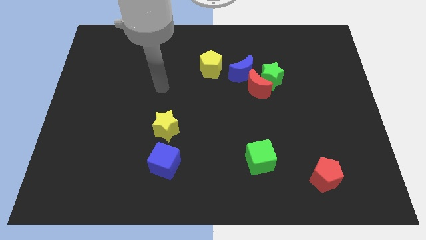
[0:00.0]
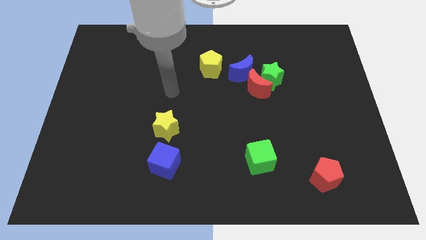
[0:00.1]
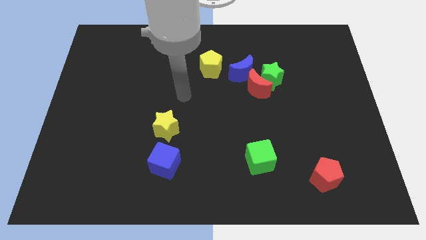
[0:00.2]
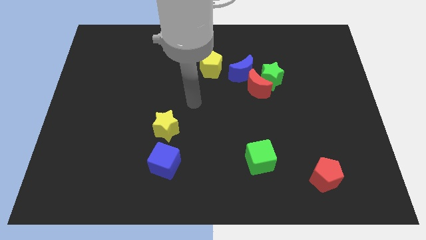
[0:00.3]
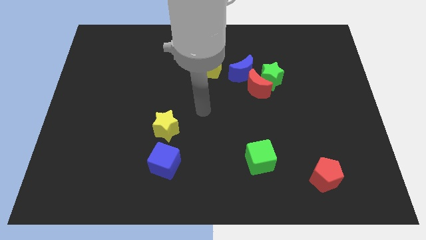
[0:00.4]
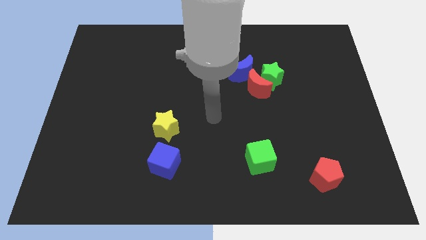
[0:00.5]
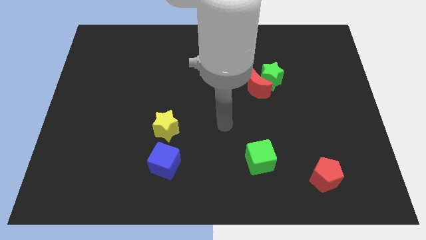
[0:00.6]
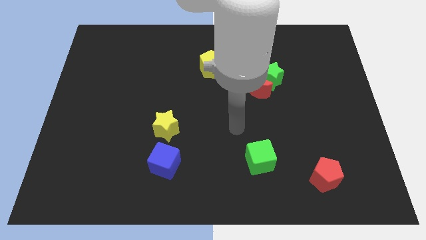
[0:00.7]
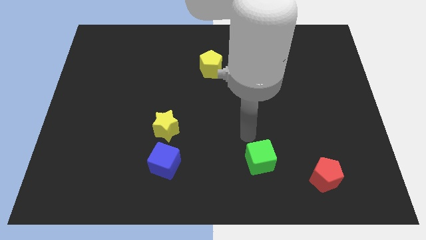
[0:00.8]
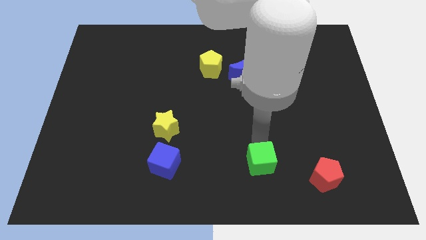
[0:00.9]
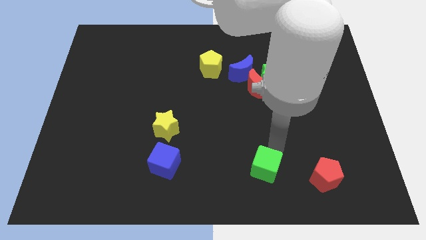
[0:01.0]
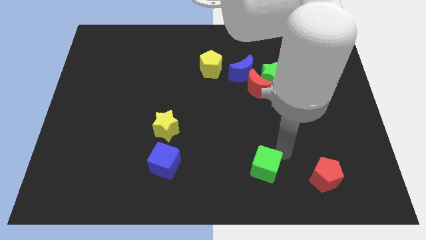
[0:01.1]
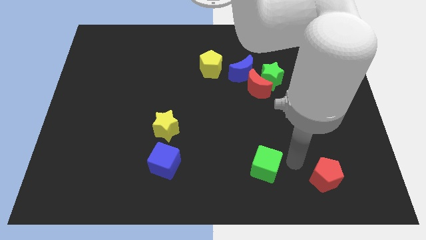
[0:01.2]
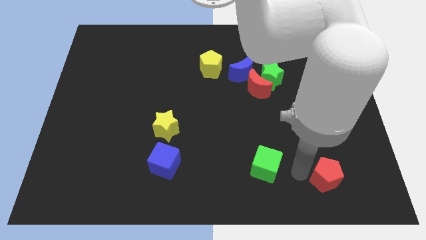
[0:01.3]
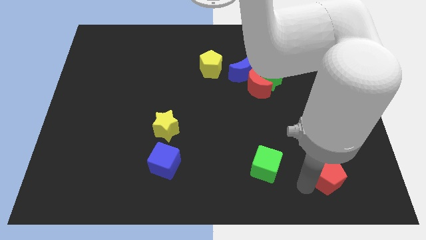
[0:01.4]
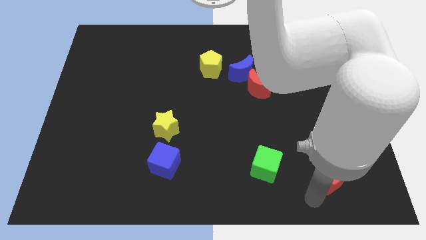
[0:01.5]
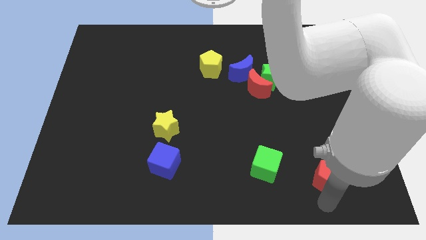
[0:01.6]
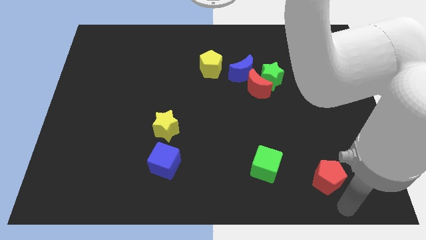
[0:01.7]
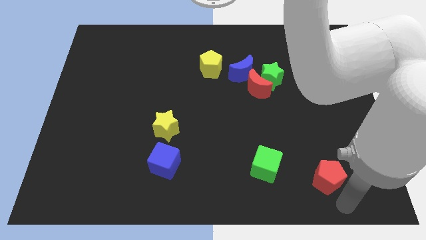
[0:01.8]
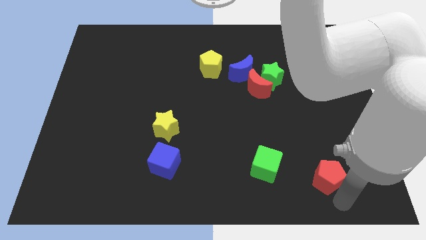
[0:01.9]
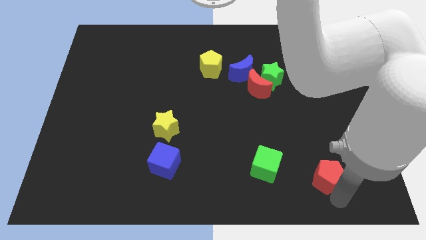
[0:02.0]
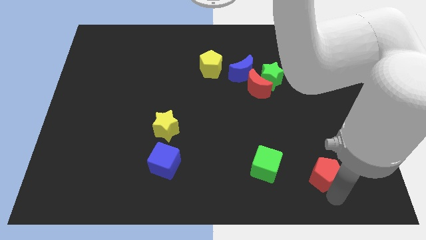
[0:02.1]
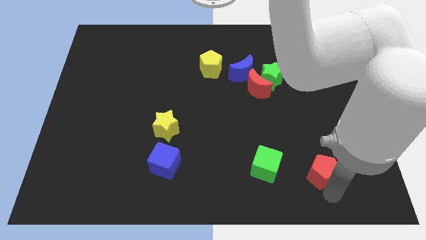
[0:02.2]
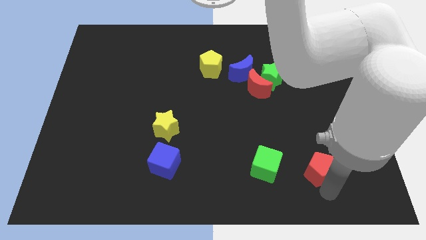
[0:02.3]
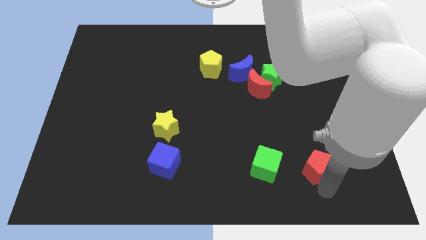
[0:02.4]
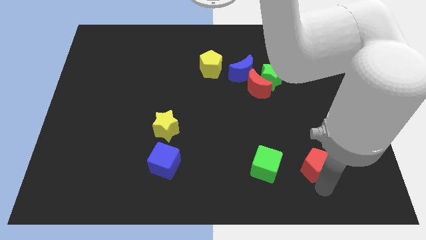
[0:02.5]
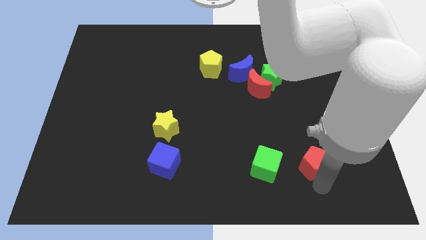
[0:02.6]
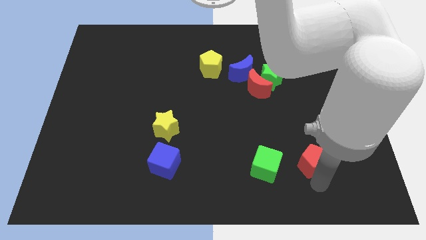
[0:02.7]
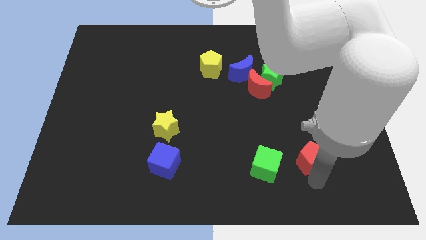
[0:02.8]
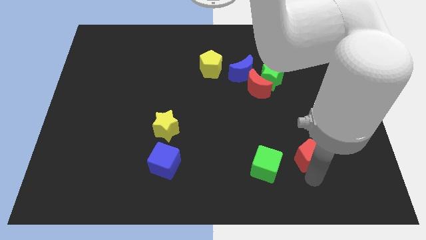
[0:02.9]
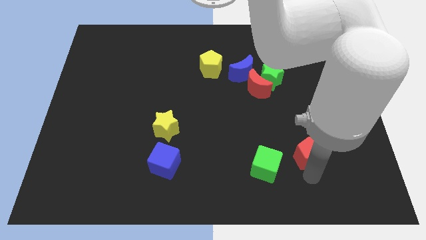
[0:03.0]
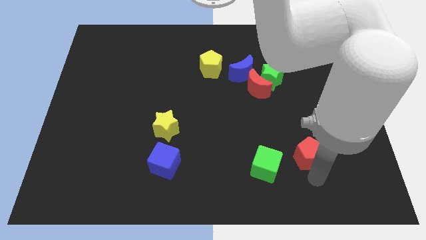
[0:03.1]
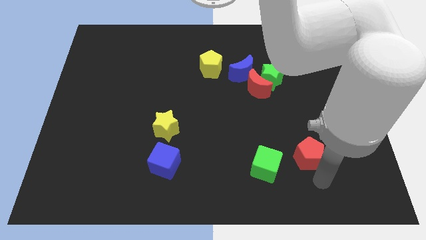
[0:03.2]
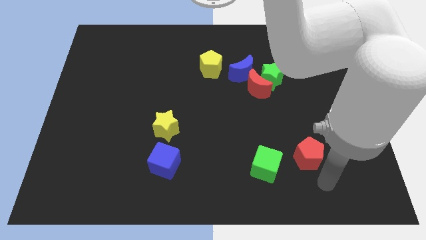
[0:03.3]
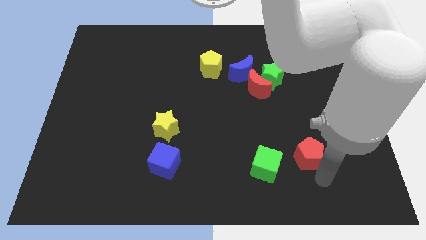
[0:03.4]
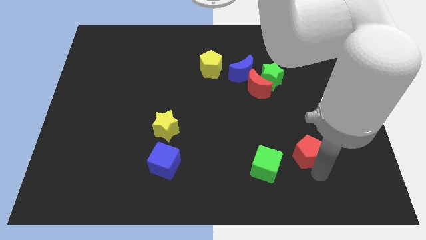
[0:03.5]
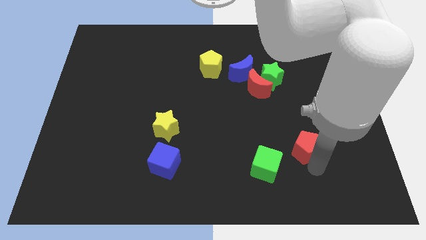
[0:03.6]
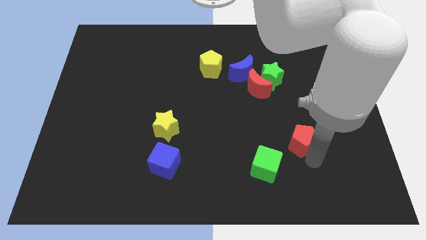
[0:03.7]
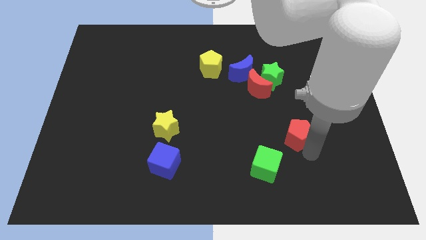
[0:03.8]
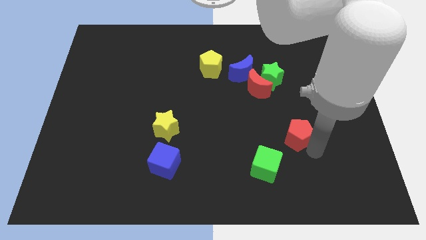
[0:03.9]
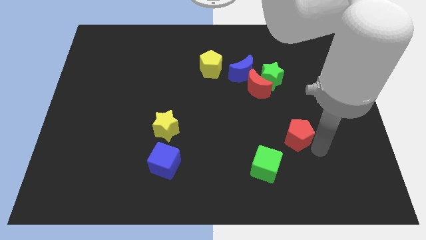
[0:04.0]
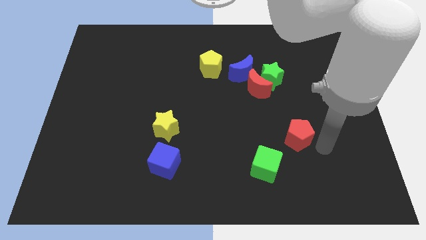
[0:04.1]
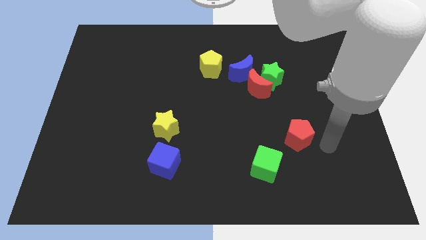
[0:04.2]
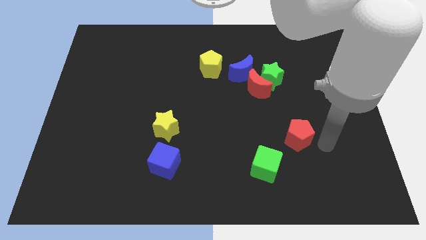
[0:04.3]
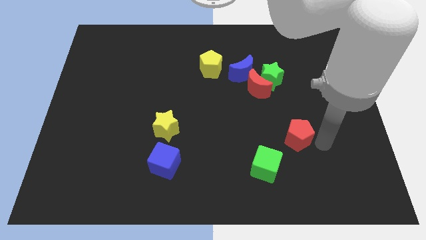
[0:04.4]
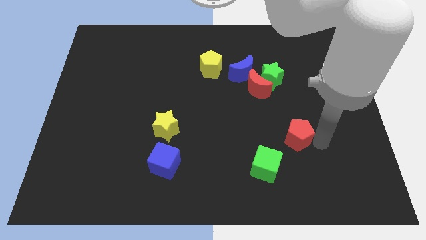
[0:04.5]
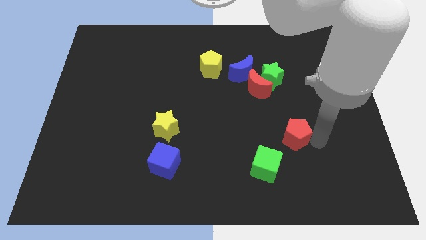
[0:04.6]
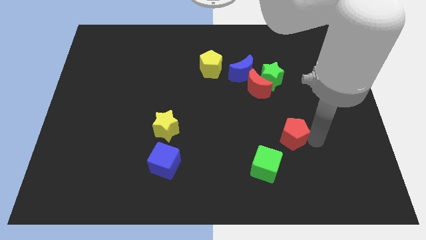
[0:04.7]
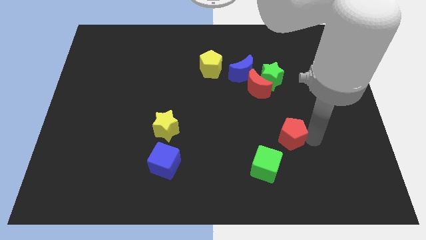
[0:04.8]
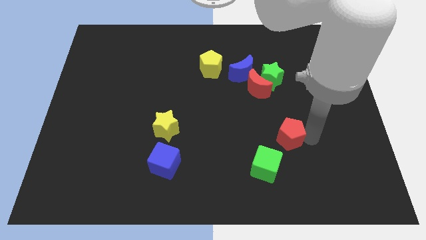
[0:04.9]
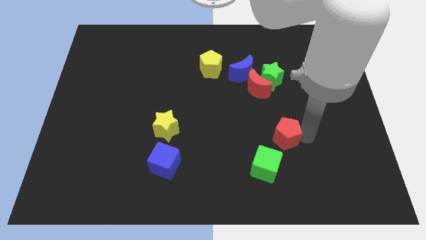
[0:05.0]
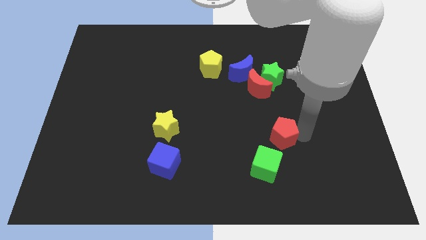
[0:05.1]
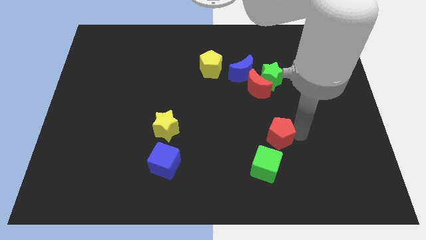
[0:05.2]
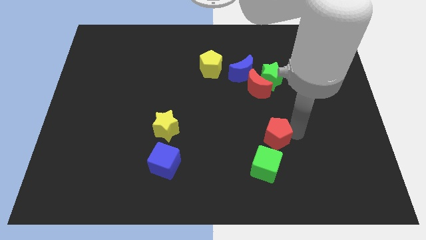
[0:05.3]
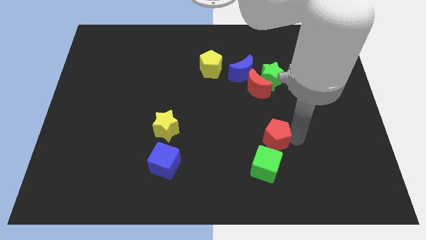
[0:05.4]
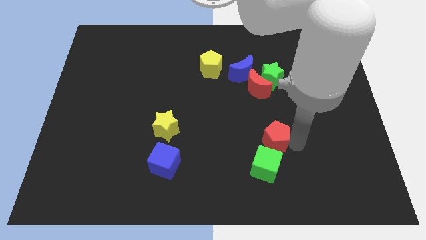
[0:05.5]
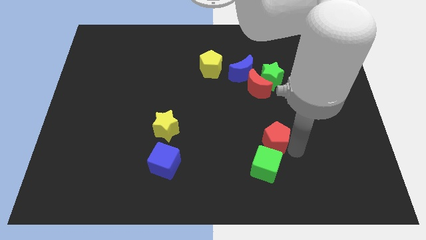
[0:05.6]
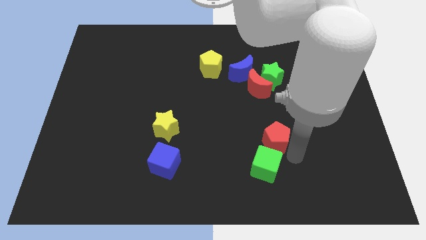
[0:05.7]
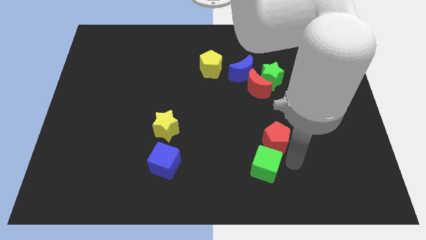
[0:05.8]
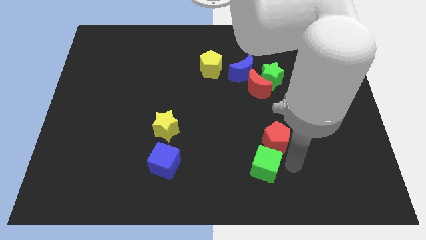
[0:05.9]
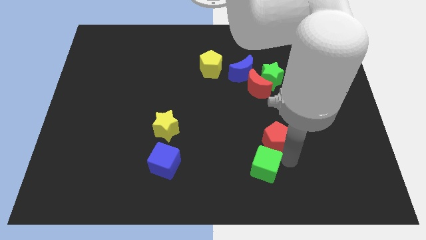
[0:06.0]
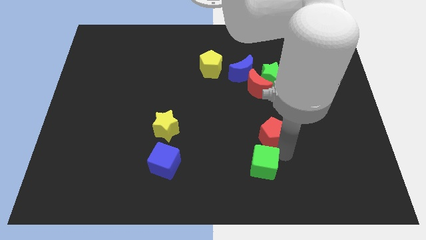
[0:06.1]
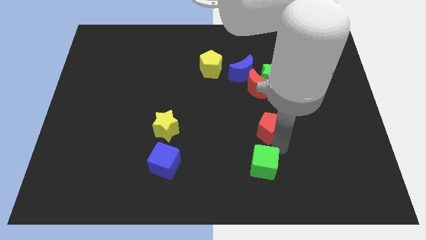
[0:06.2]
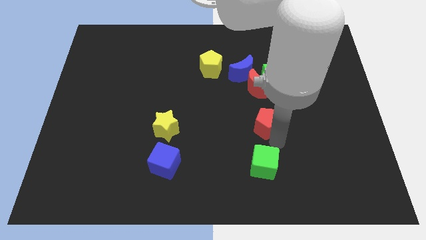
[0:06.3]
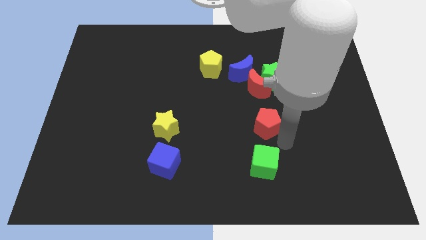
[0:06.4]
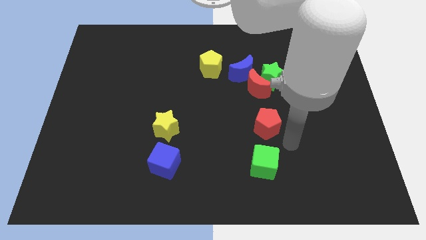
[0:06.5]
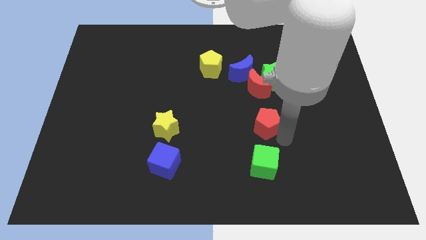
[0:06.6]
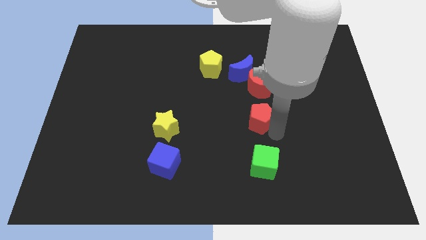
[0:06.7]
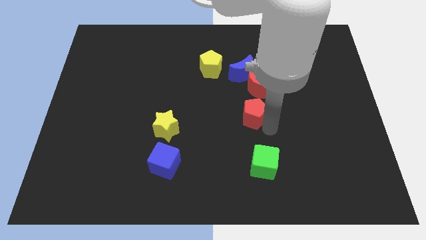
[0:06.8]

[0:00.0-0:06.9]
slide the red pentagon diagonally up and to the left

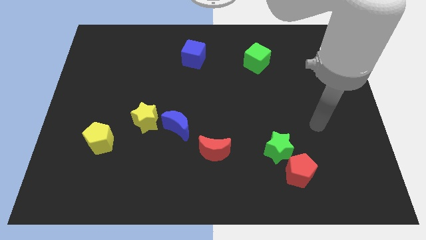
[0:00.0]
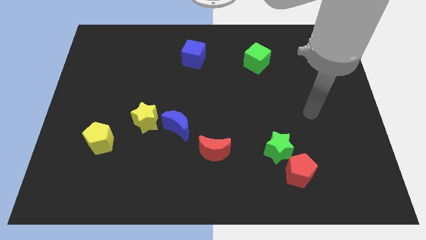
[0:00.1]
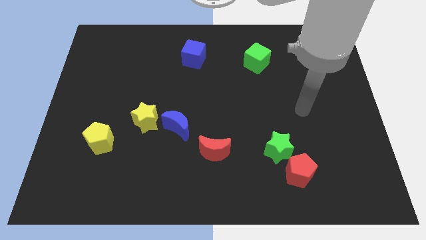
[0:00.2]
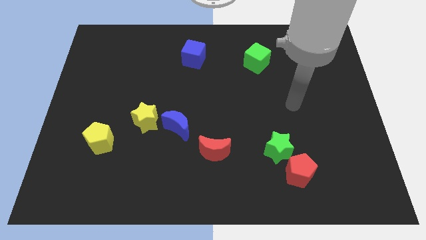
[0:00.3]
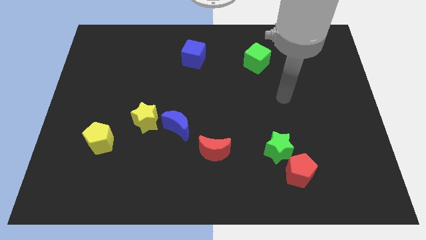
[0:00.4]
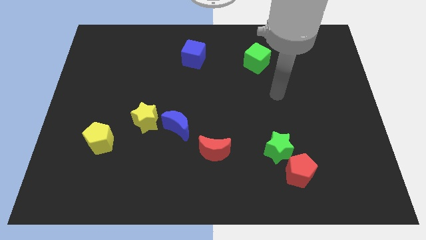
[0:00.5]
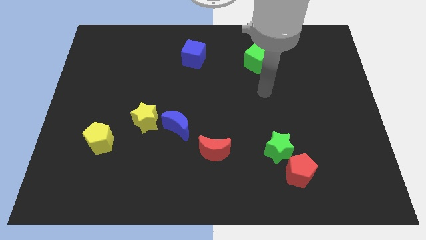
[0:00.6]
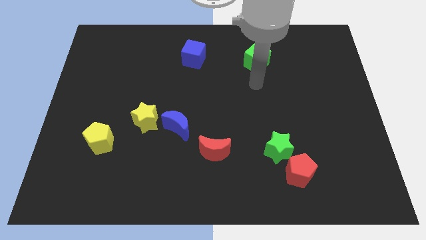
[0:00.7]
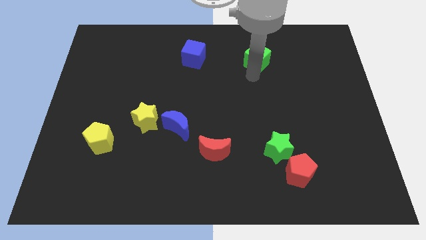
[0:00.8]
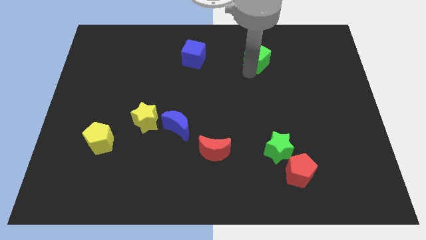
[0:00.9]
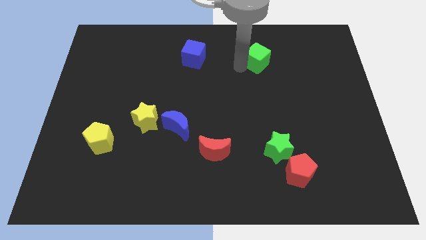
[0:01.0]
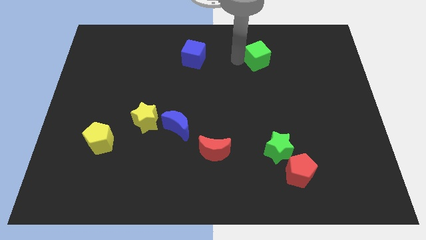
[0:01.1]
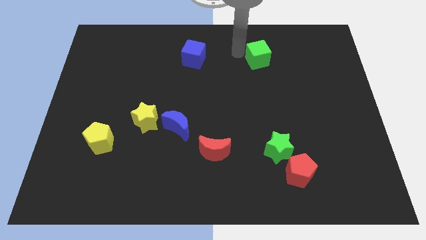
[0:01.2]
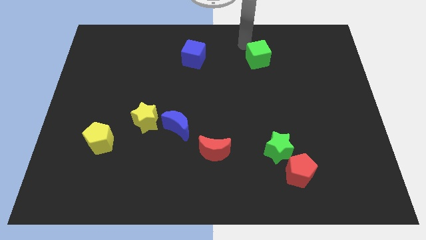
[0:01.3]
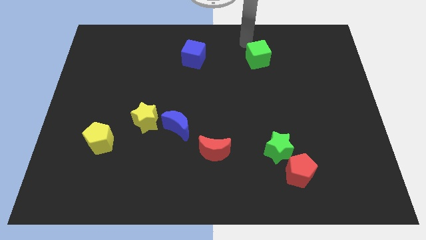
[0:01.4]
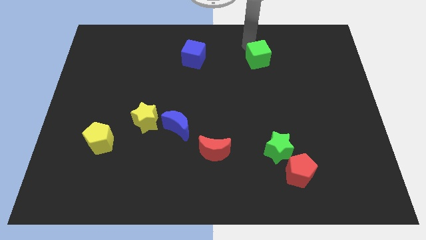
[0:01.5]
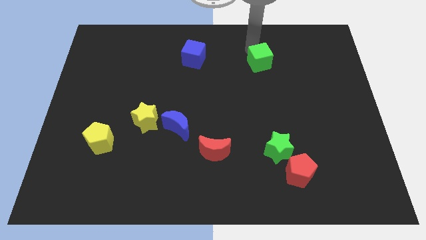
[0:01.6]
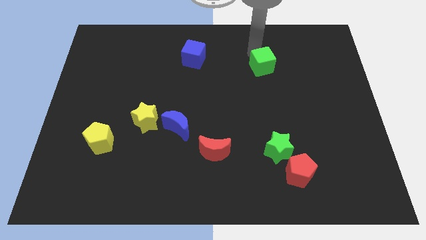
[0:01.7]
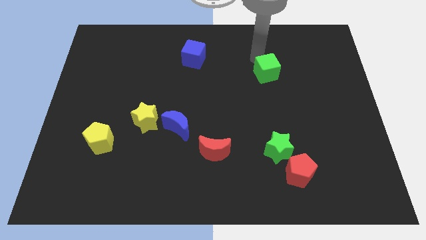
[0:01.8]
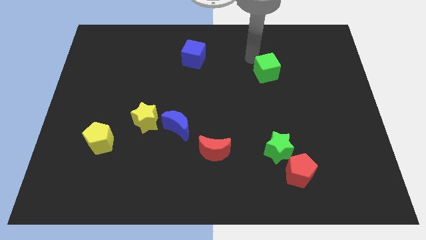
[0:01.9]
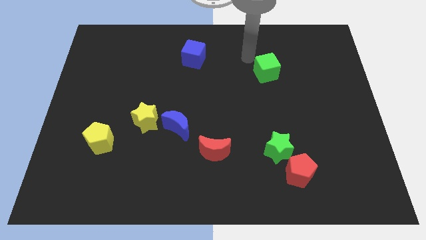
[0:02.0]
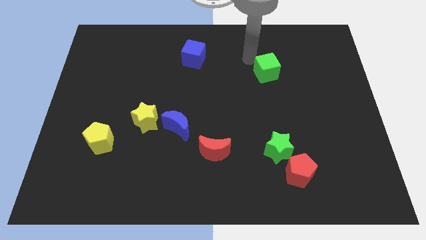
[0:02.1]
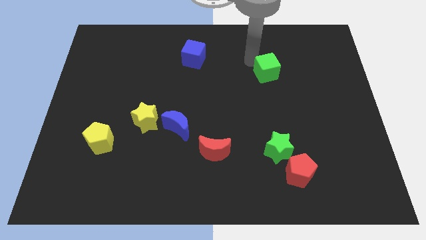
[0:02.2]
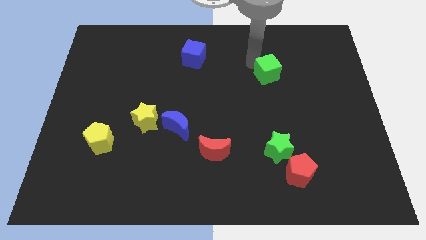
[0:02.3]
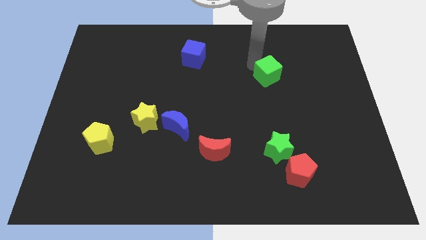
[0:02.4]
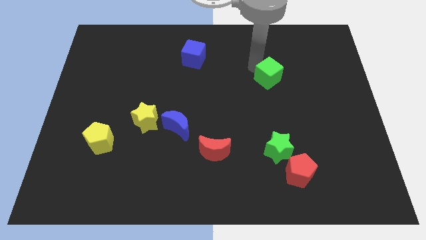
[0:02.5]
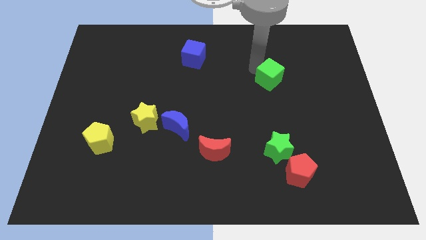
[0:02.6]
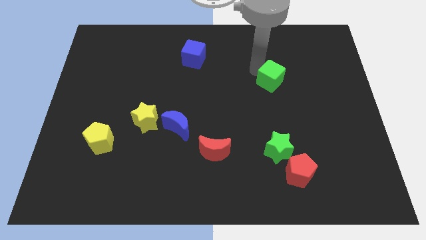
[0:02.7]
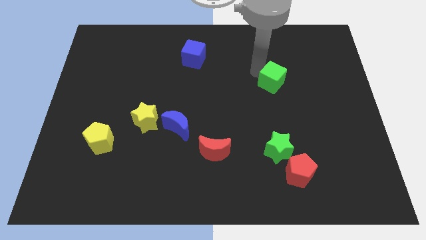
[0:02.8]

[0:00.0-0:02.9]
push the green cube a little down and right diagonally
